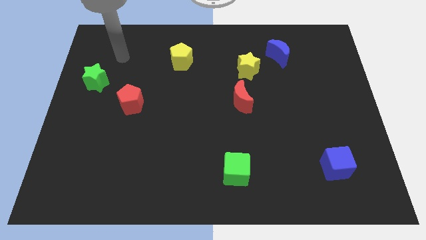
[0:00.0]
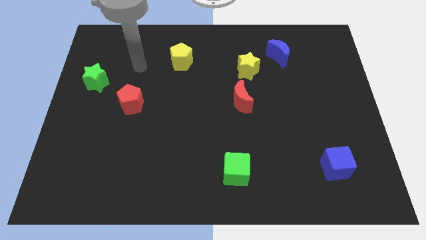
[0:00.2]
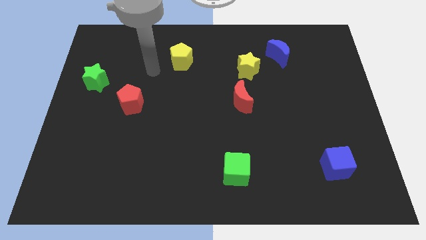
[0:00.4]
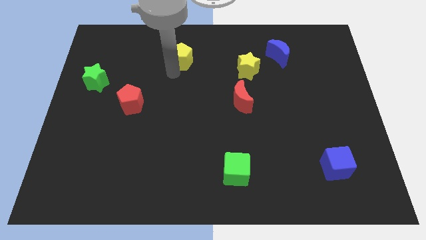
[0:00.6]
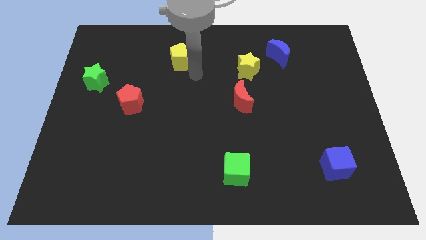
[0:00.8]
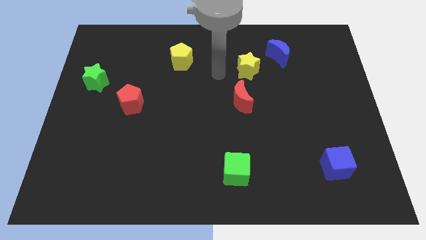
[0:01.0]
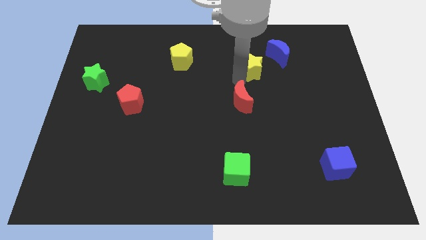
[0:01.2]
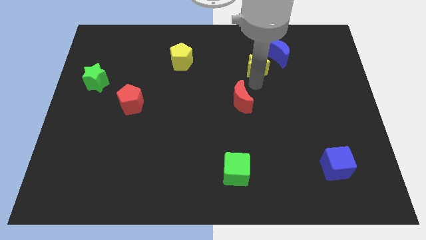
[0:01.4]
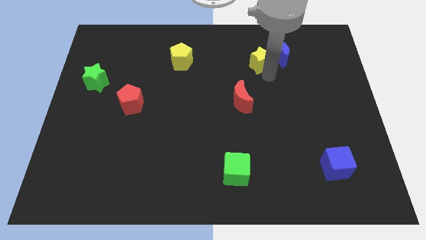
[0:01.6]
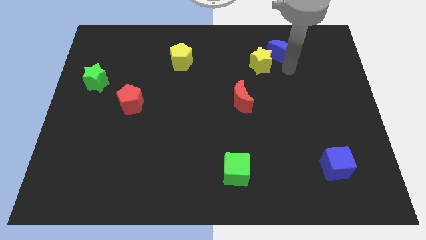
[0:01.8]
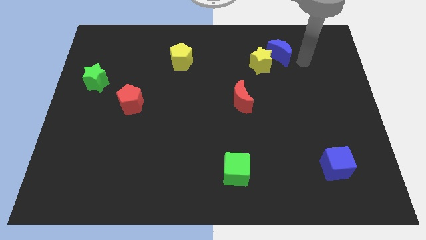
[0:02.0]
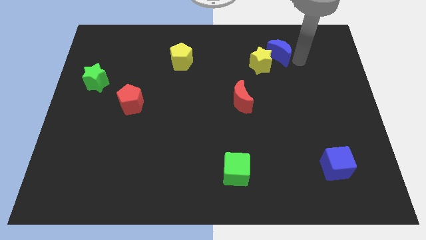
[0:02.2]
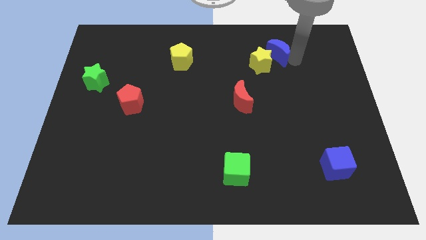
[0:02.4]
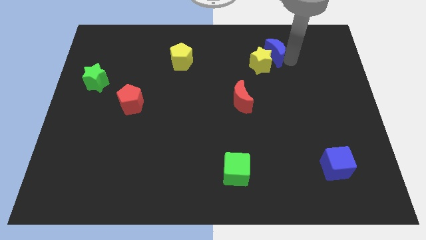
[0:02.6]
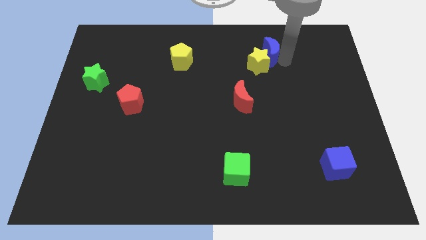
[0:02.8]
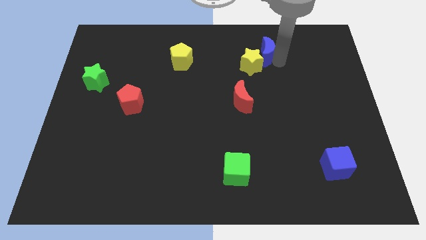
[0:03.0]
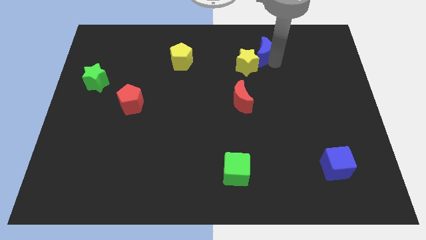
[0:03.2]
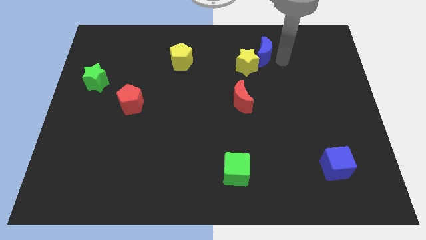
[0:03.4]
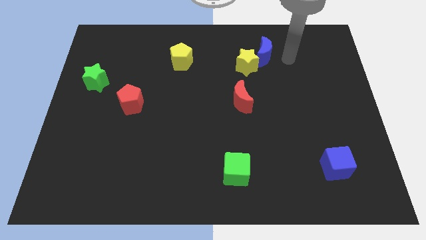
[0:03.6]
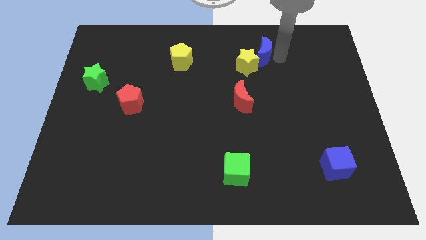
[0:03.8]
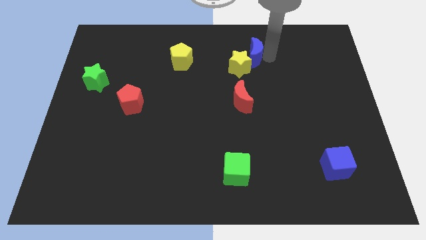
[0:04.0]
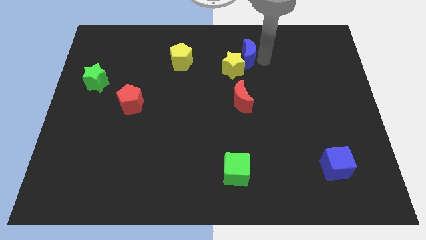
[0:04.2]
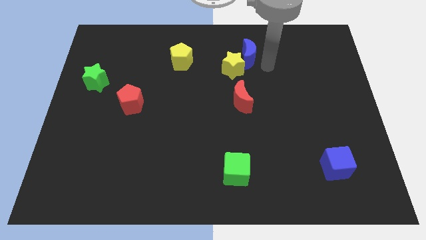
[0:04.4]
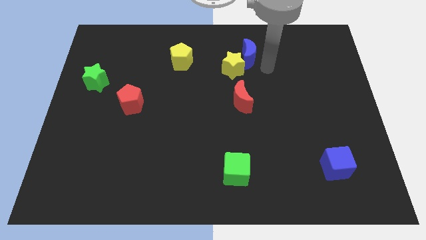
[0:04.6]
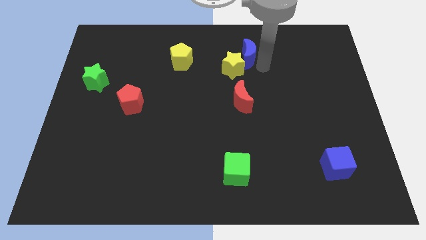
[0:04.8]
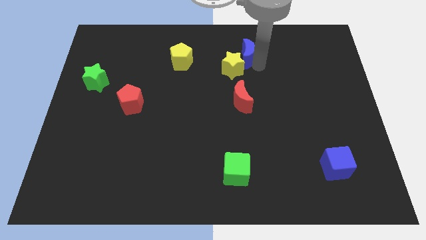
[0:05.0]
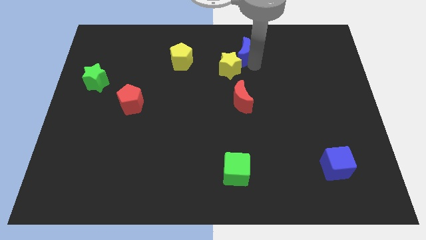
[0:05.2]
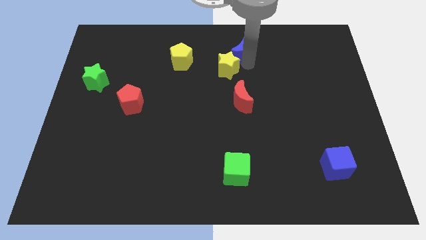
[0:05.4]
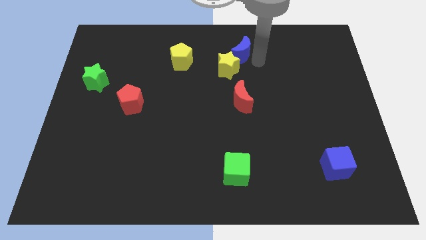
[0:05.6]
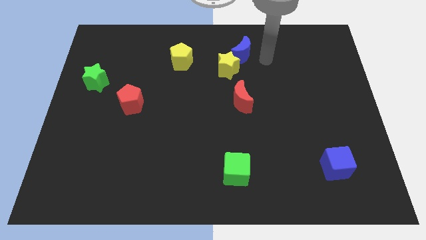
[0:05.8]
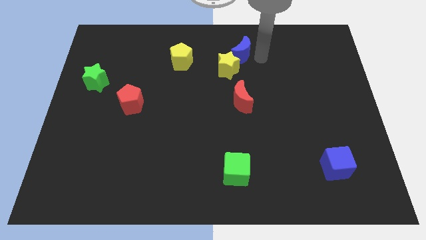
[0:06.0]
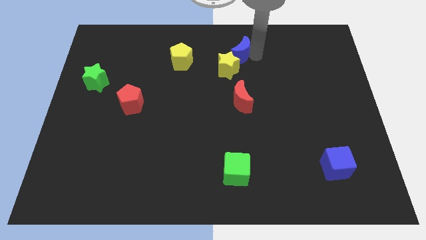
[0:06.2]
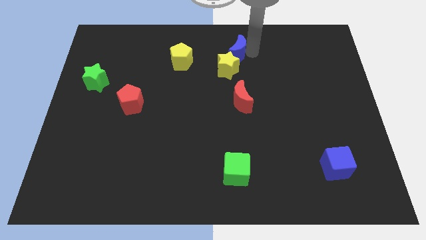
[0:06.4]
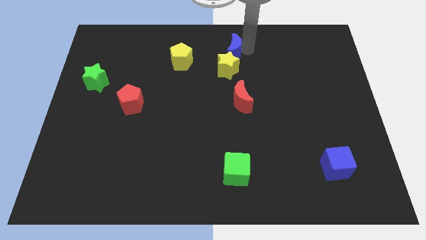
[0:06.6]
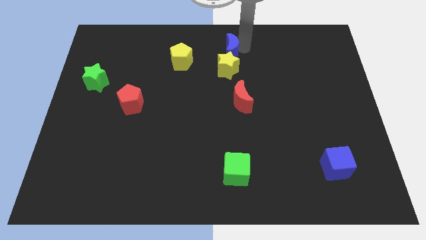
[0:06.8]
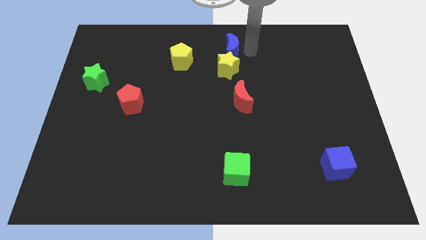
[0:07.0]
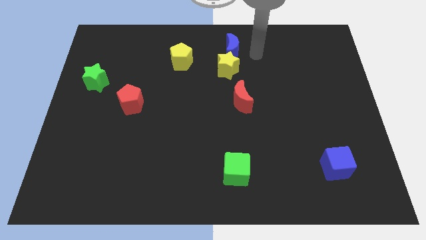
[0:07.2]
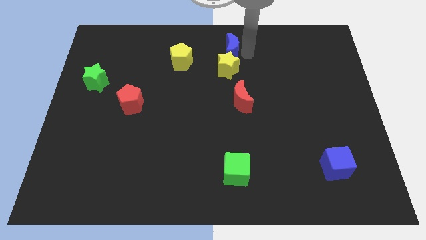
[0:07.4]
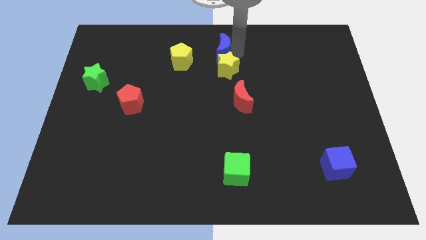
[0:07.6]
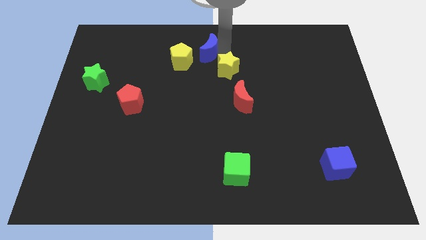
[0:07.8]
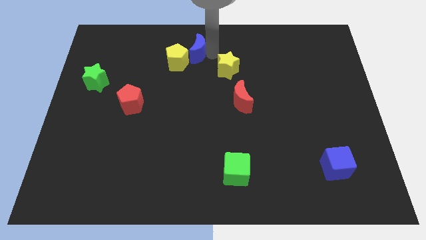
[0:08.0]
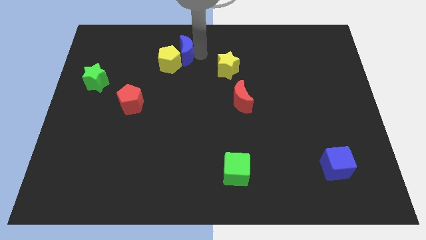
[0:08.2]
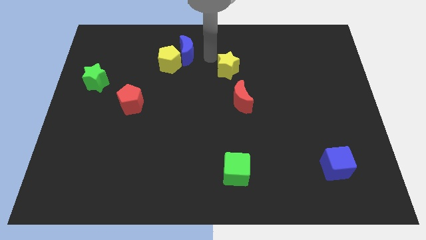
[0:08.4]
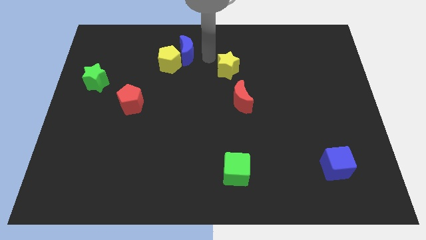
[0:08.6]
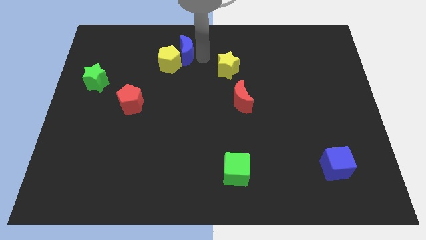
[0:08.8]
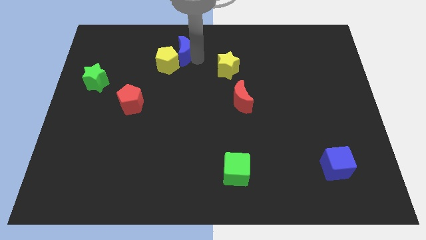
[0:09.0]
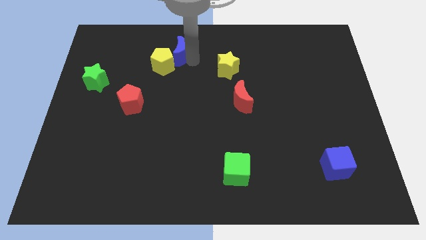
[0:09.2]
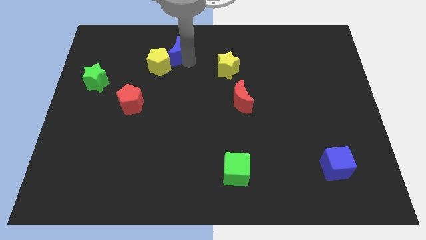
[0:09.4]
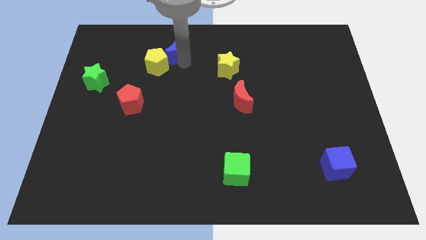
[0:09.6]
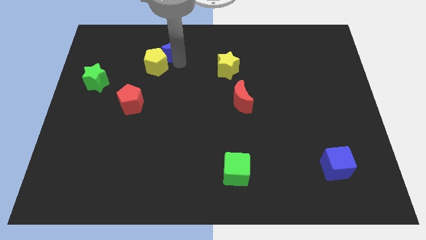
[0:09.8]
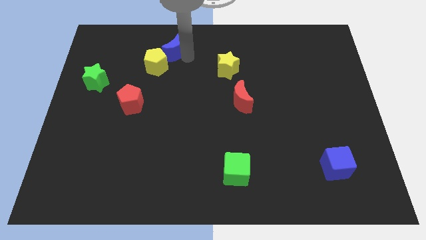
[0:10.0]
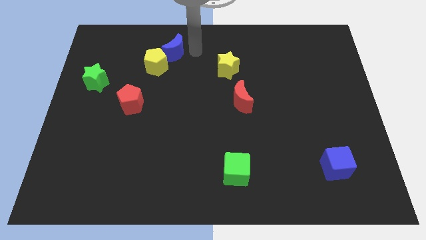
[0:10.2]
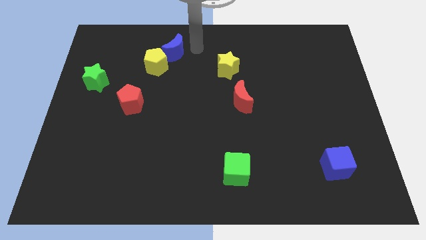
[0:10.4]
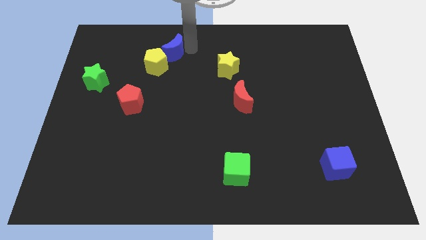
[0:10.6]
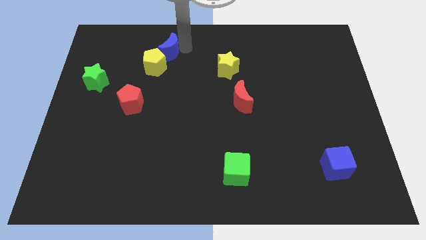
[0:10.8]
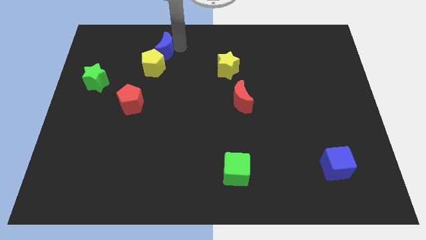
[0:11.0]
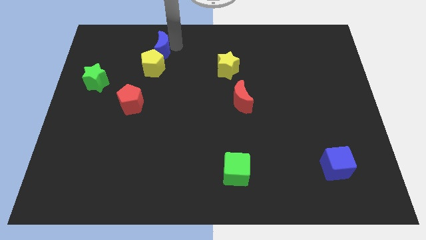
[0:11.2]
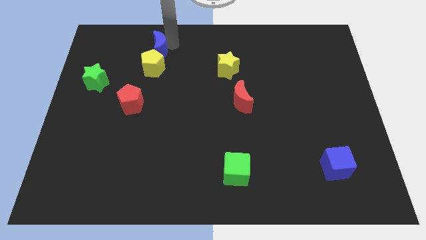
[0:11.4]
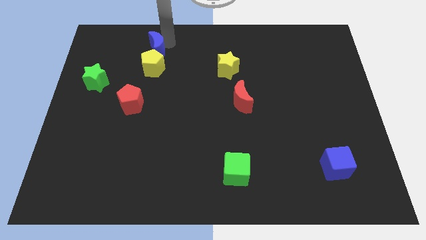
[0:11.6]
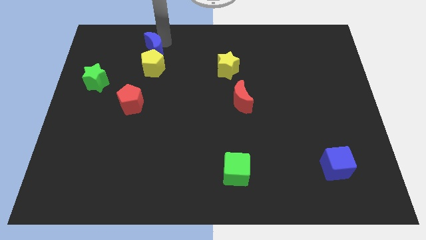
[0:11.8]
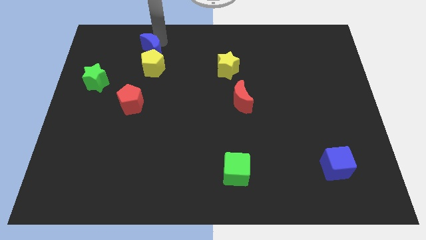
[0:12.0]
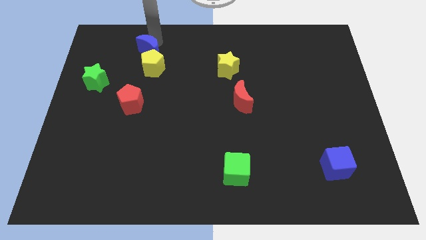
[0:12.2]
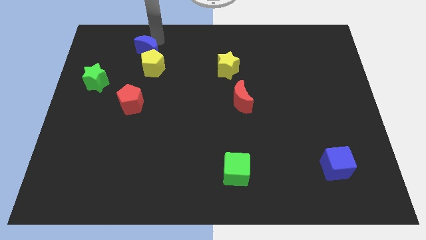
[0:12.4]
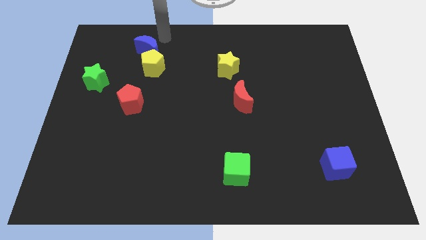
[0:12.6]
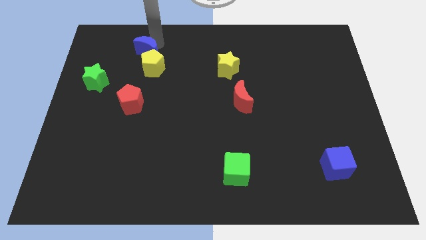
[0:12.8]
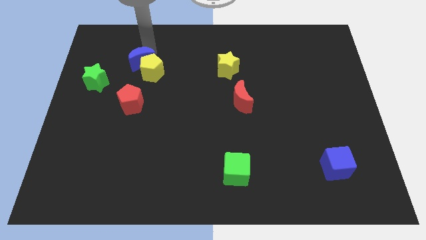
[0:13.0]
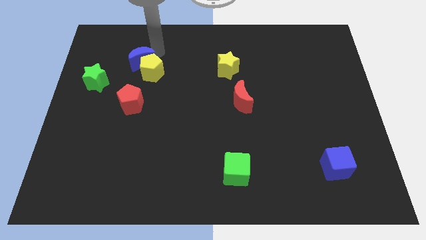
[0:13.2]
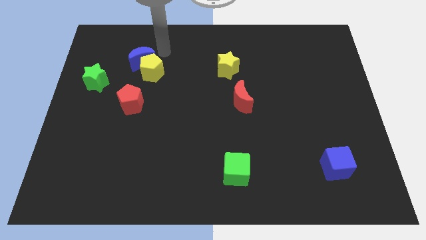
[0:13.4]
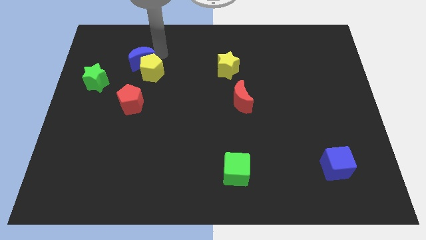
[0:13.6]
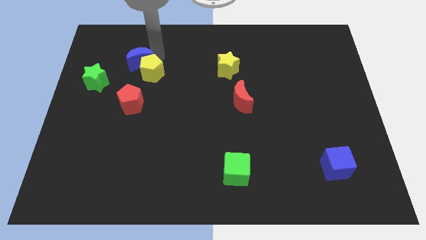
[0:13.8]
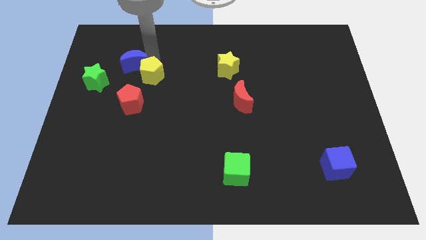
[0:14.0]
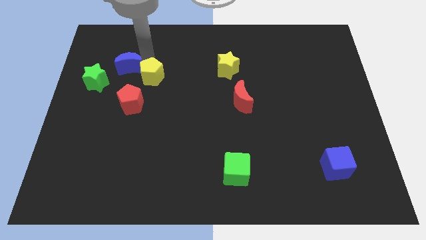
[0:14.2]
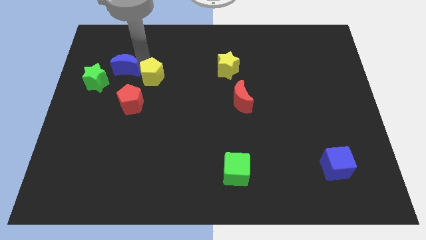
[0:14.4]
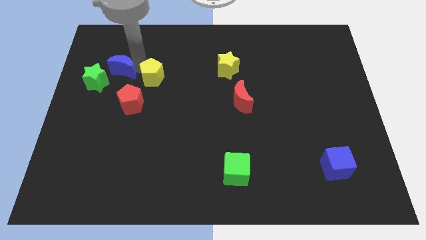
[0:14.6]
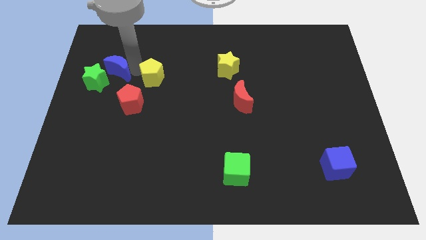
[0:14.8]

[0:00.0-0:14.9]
put the blue moon close to the green star
